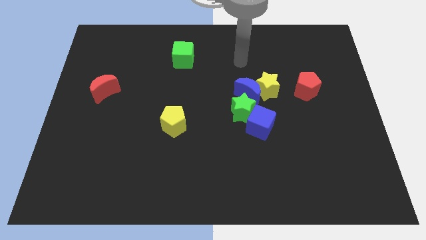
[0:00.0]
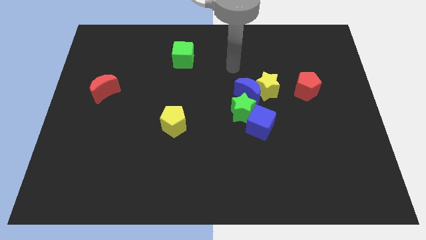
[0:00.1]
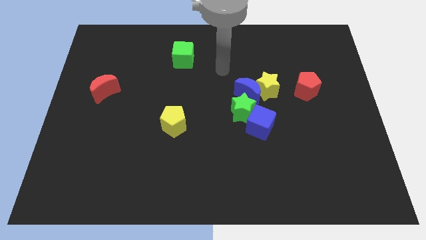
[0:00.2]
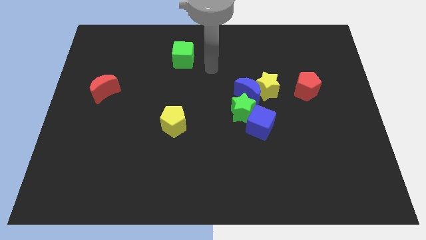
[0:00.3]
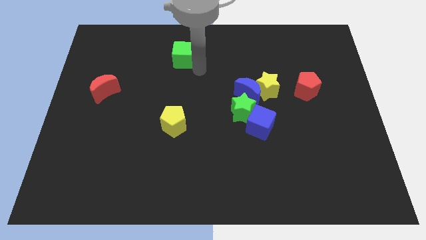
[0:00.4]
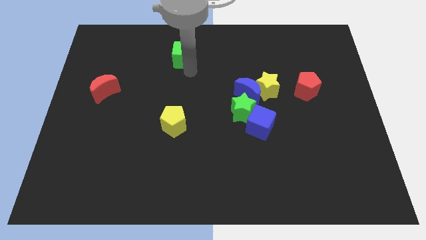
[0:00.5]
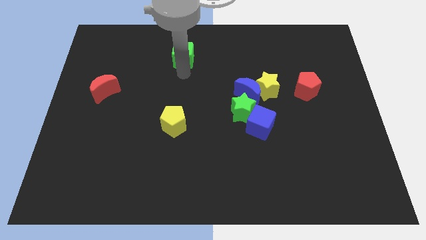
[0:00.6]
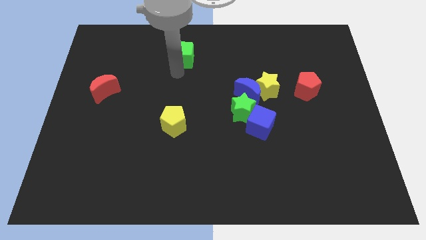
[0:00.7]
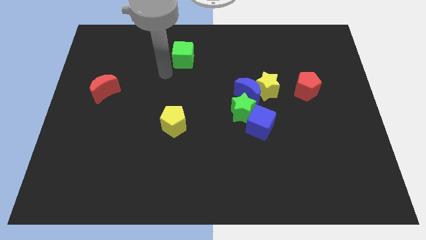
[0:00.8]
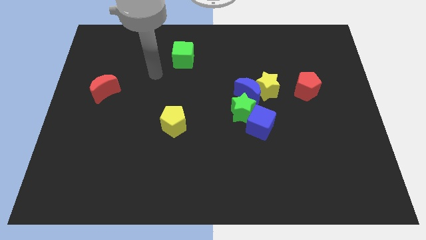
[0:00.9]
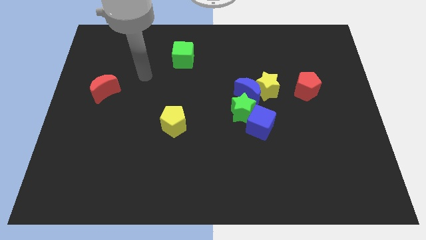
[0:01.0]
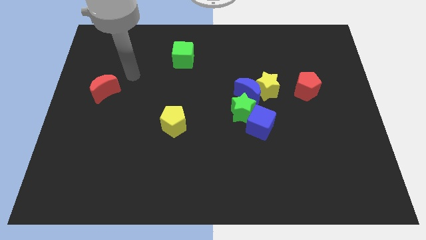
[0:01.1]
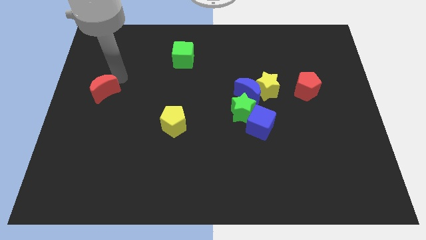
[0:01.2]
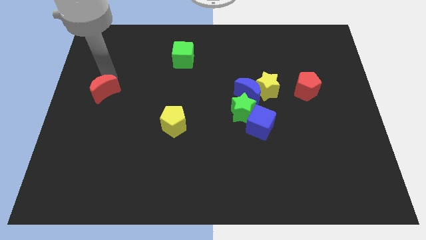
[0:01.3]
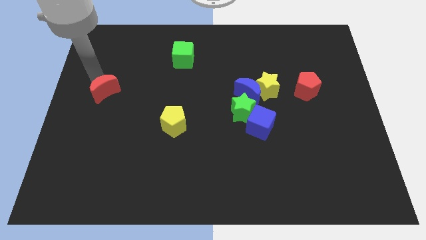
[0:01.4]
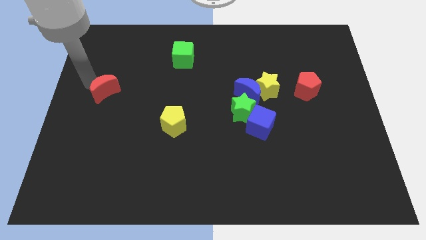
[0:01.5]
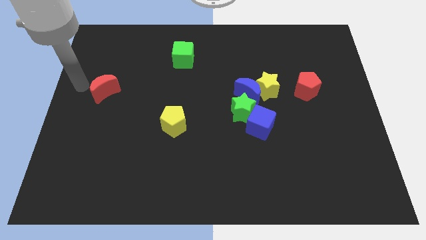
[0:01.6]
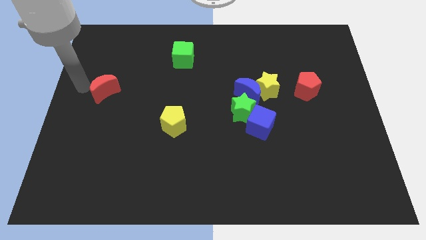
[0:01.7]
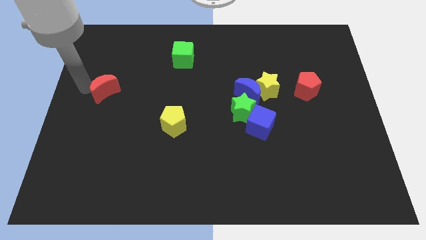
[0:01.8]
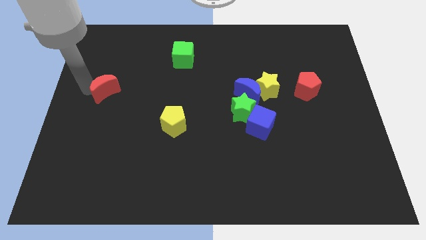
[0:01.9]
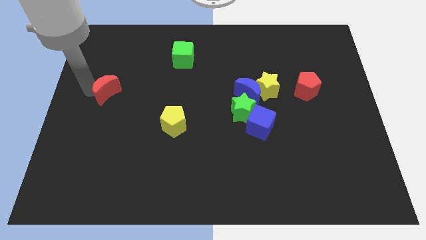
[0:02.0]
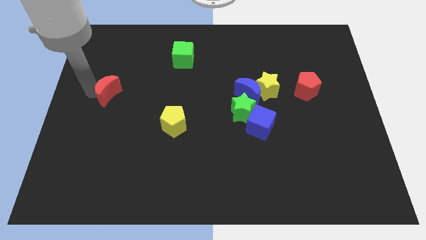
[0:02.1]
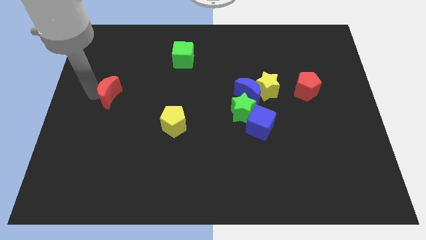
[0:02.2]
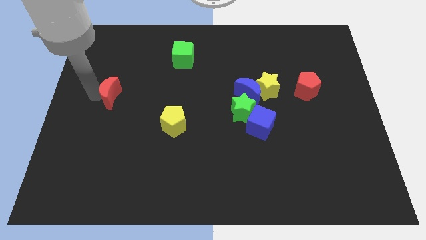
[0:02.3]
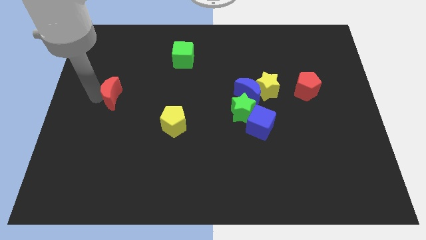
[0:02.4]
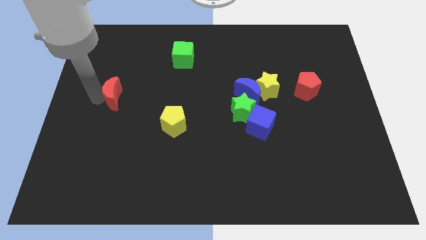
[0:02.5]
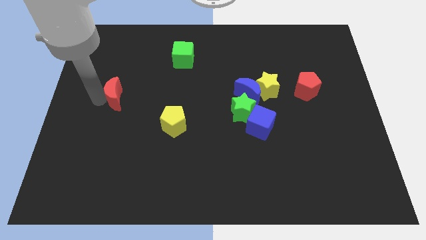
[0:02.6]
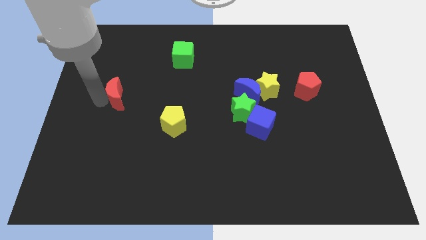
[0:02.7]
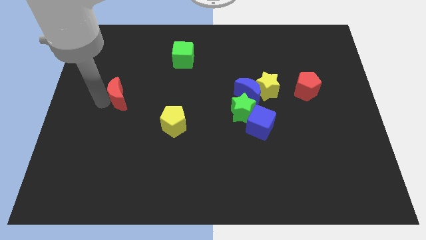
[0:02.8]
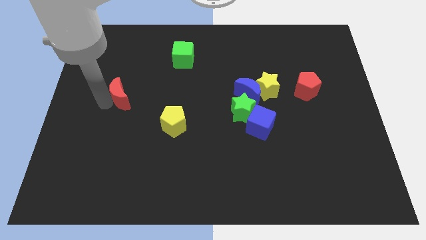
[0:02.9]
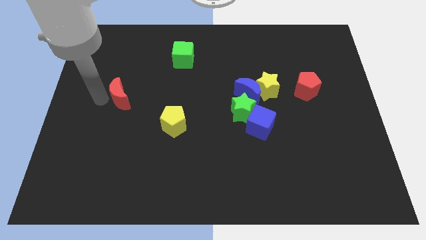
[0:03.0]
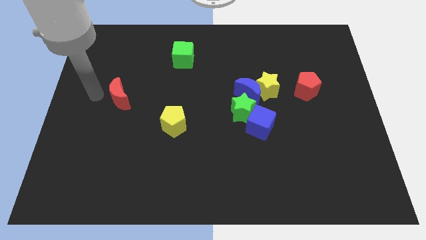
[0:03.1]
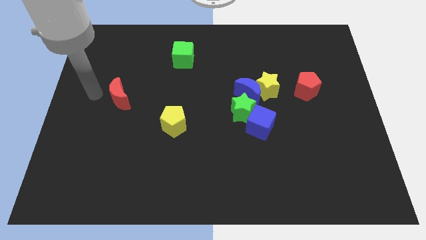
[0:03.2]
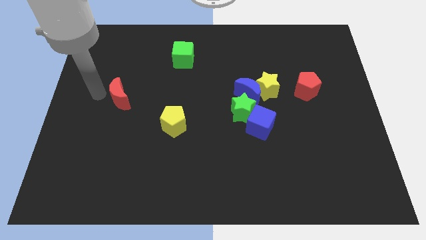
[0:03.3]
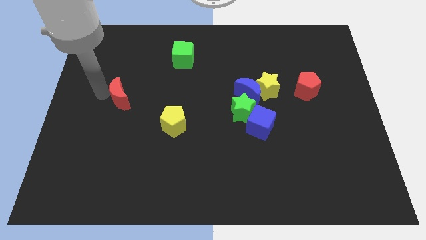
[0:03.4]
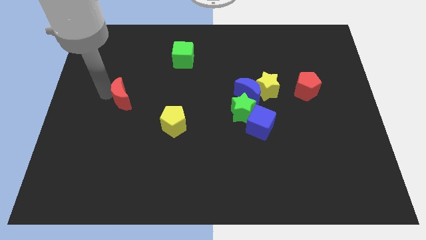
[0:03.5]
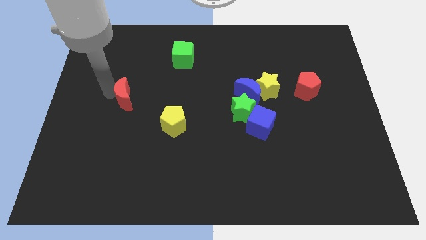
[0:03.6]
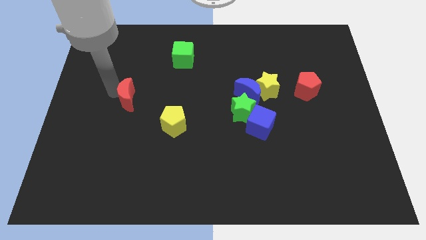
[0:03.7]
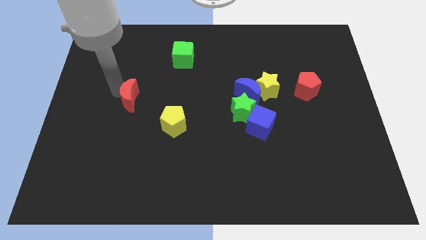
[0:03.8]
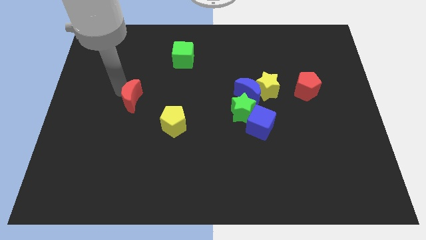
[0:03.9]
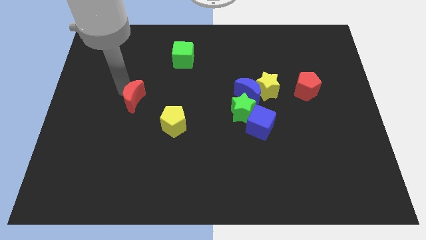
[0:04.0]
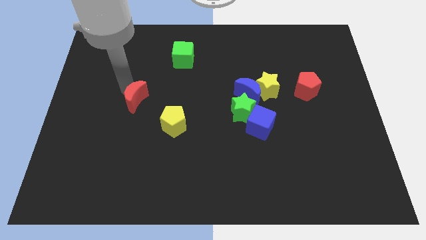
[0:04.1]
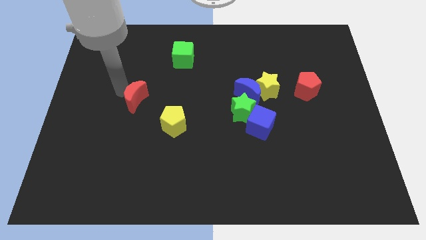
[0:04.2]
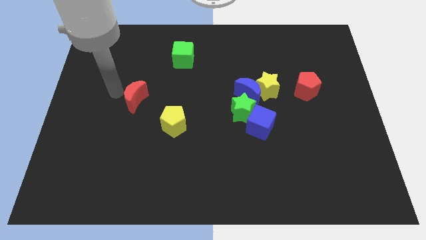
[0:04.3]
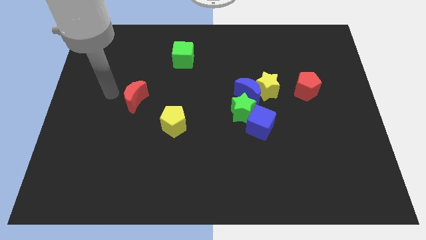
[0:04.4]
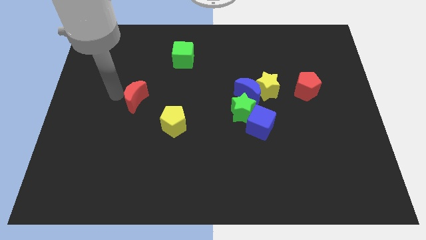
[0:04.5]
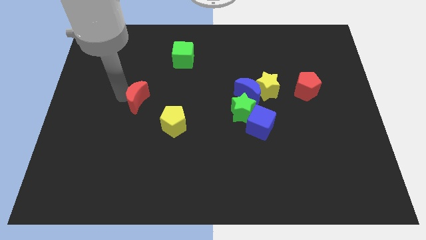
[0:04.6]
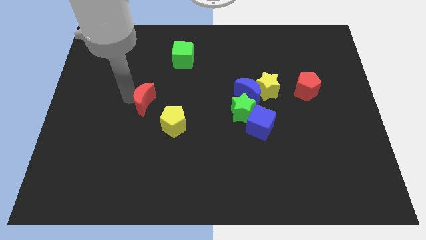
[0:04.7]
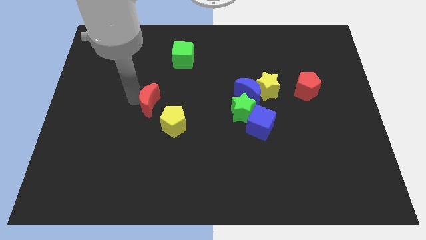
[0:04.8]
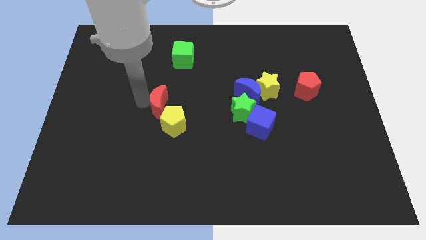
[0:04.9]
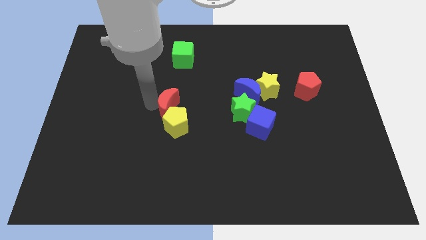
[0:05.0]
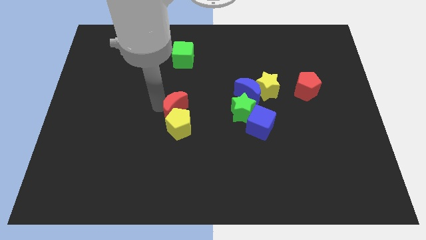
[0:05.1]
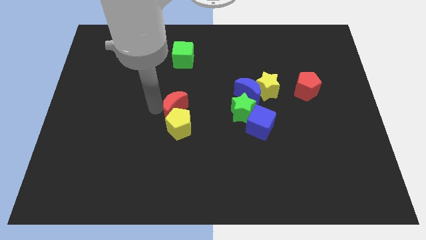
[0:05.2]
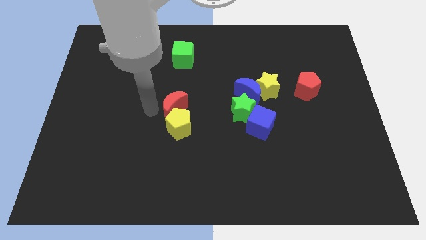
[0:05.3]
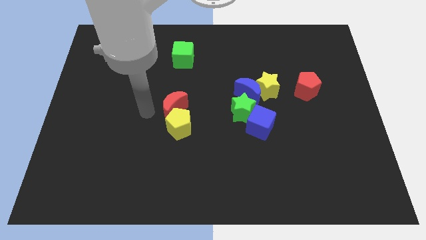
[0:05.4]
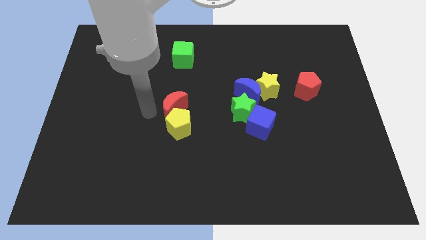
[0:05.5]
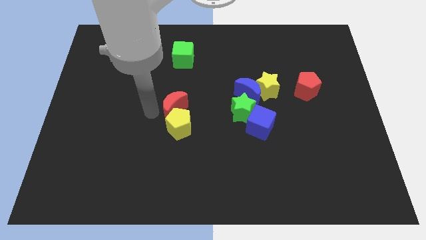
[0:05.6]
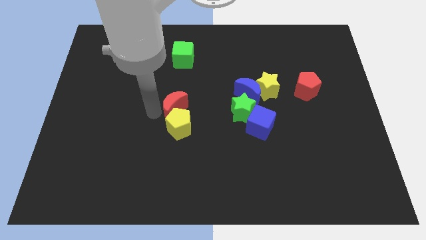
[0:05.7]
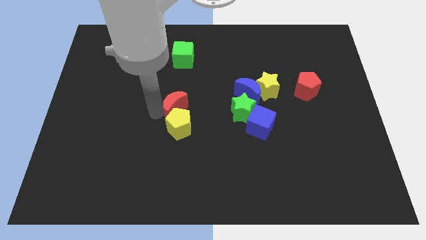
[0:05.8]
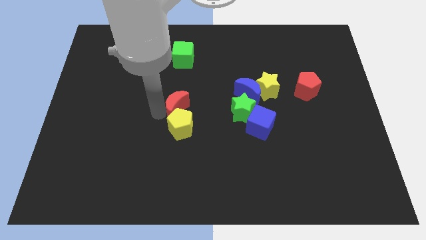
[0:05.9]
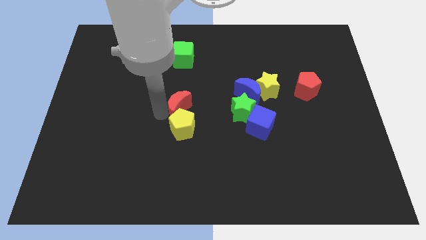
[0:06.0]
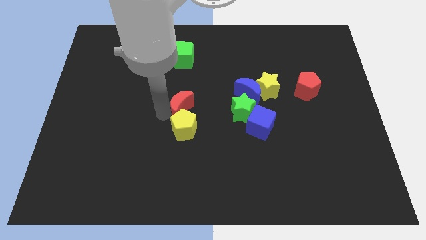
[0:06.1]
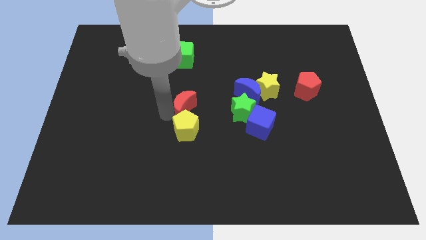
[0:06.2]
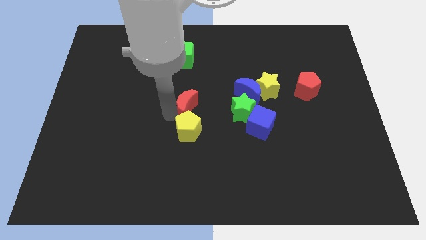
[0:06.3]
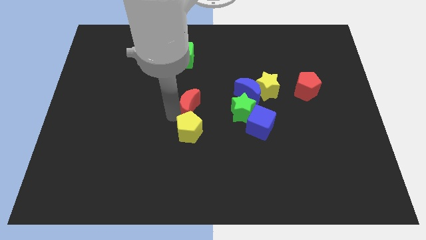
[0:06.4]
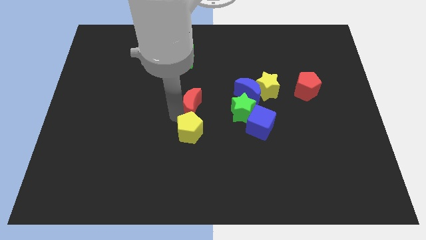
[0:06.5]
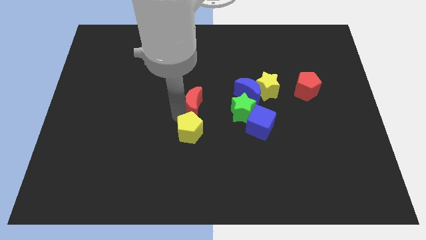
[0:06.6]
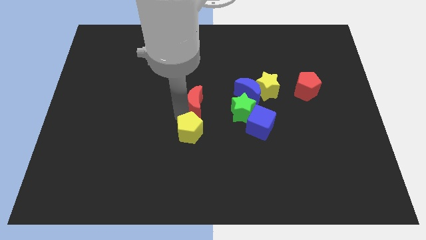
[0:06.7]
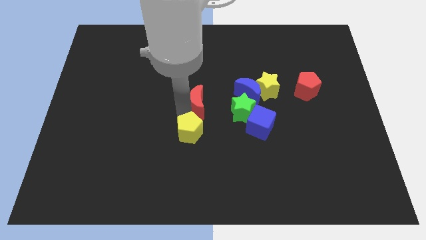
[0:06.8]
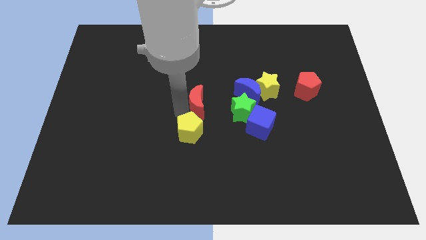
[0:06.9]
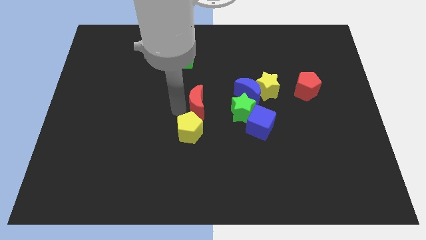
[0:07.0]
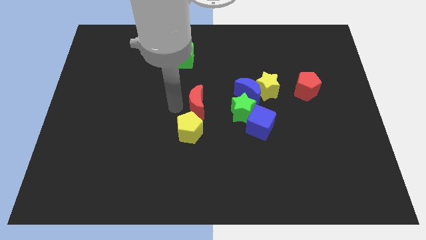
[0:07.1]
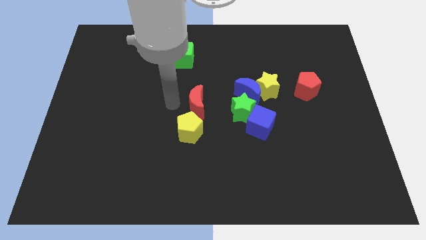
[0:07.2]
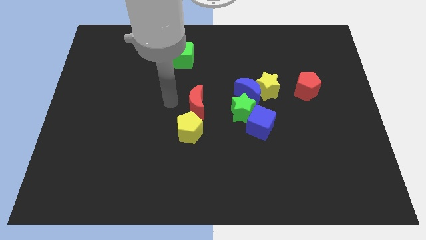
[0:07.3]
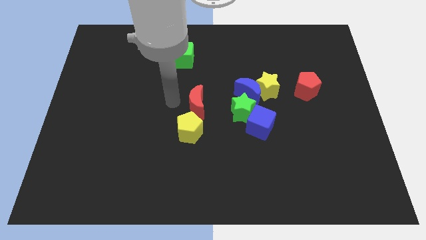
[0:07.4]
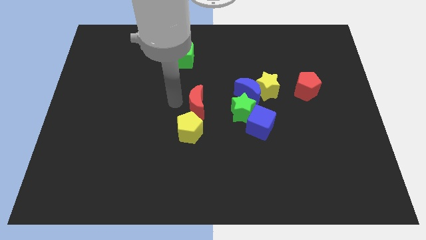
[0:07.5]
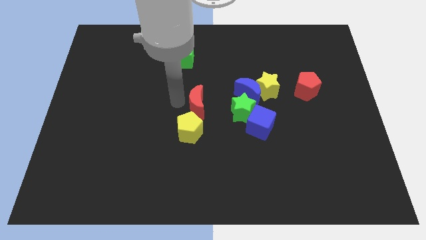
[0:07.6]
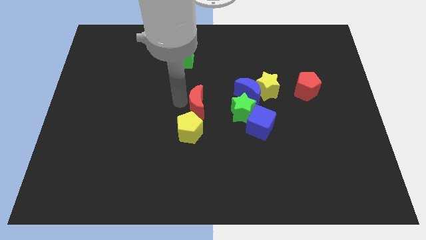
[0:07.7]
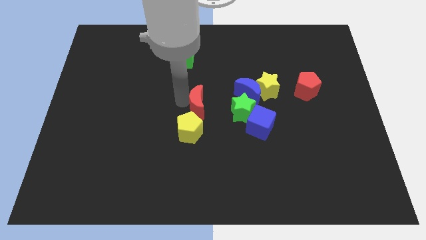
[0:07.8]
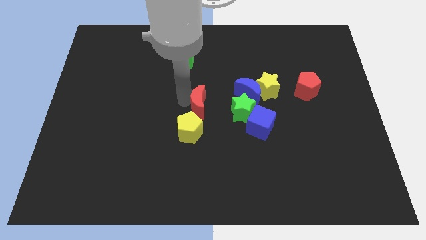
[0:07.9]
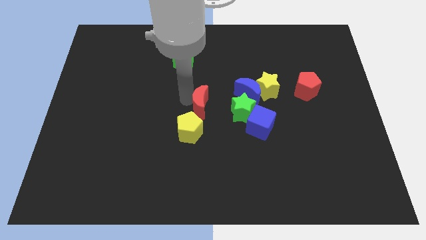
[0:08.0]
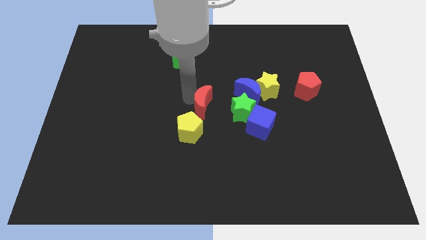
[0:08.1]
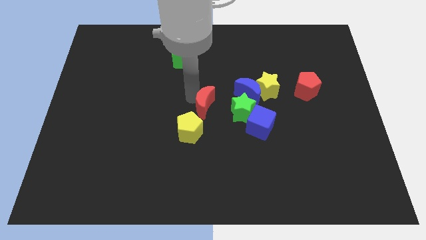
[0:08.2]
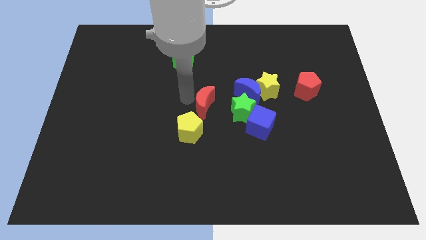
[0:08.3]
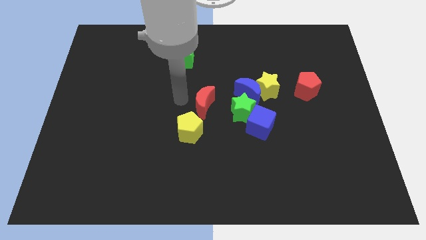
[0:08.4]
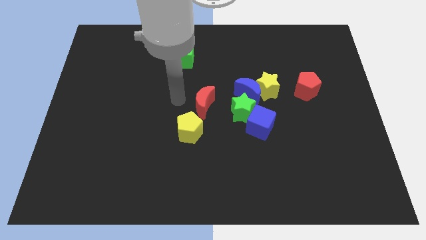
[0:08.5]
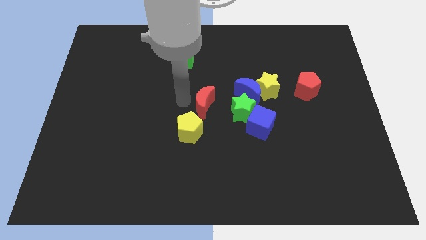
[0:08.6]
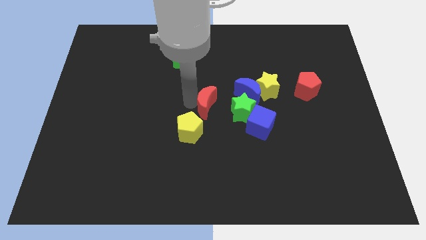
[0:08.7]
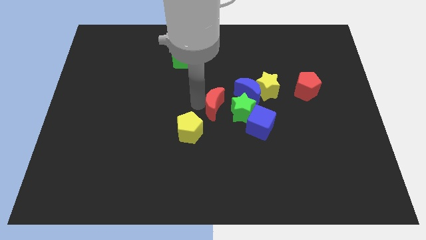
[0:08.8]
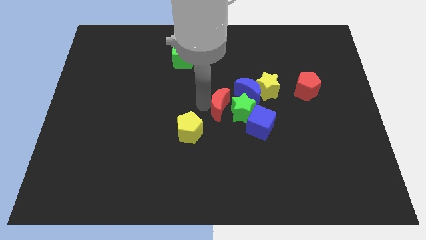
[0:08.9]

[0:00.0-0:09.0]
slide the red moon close to the green star
